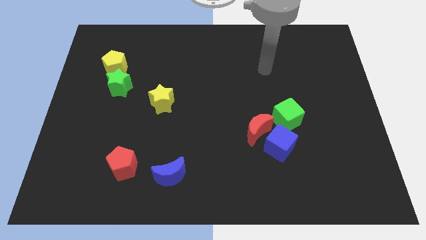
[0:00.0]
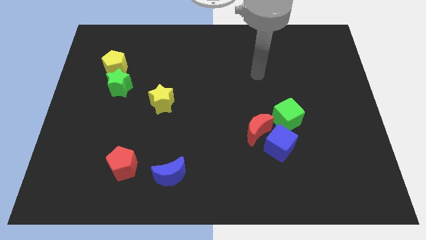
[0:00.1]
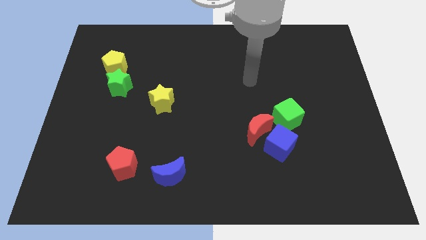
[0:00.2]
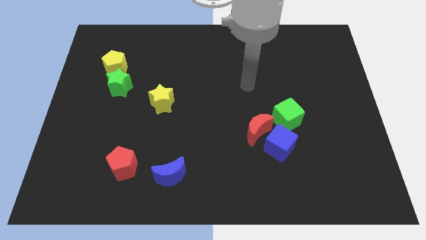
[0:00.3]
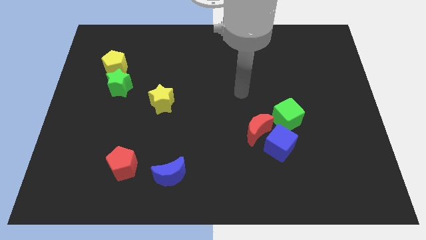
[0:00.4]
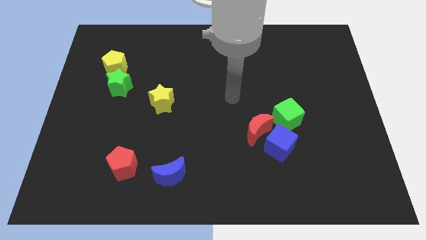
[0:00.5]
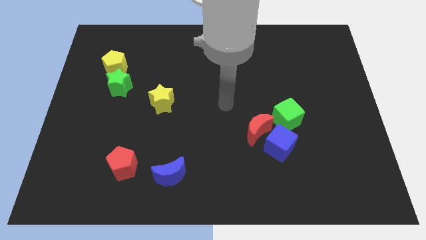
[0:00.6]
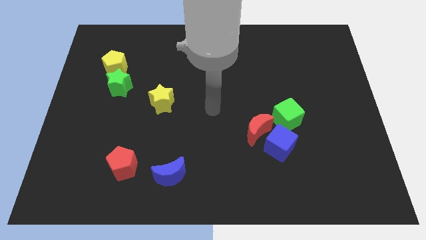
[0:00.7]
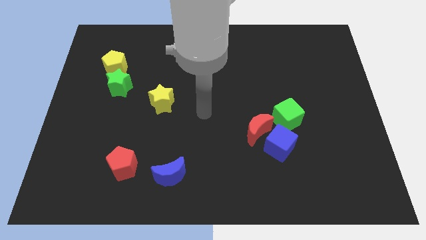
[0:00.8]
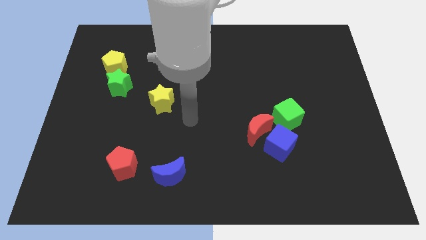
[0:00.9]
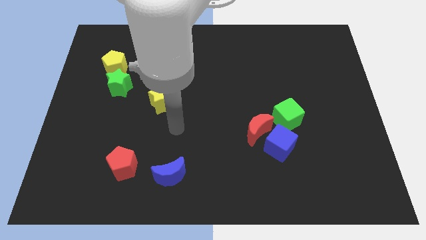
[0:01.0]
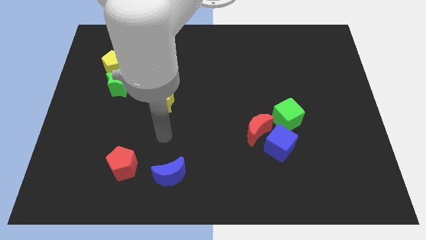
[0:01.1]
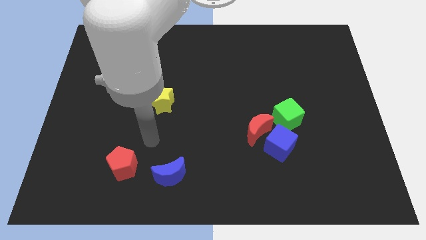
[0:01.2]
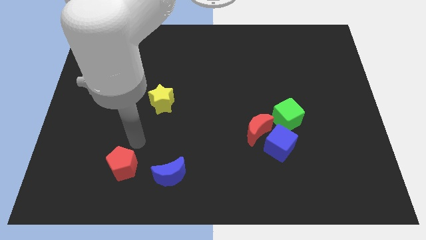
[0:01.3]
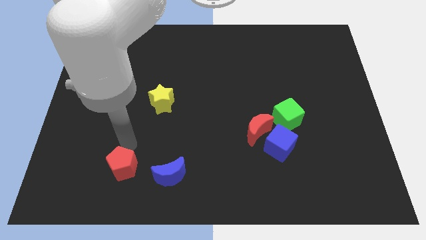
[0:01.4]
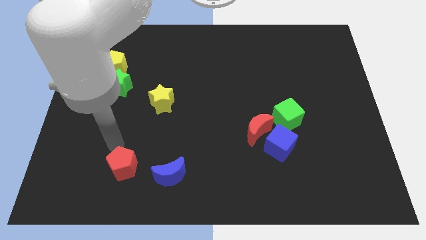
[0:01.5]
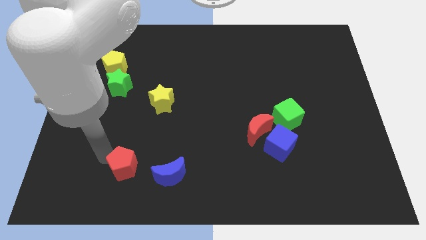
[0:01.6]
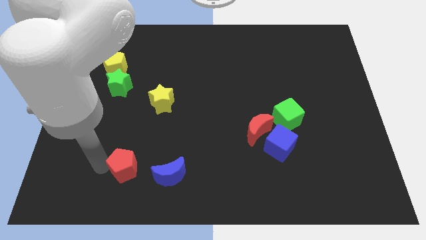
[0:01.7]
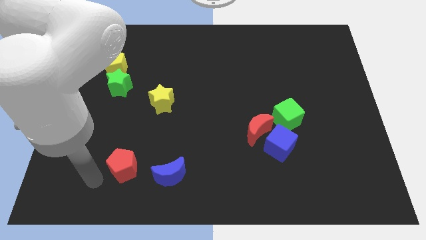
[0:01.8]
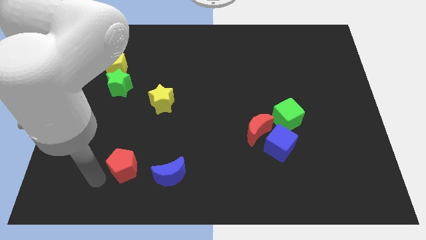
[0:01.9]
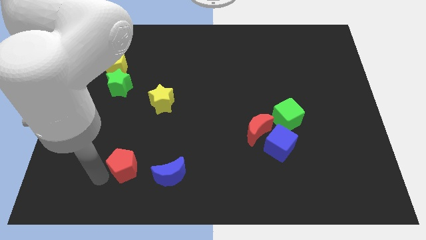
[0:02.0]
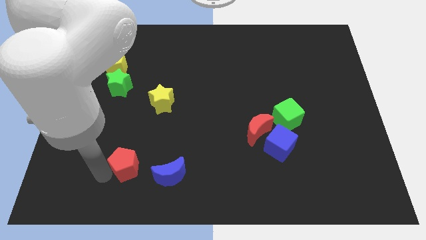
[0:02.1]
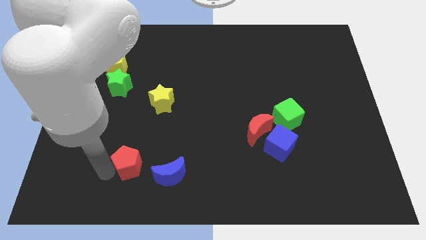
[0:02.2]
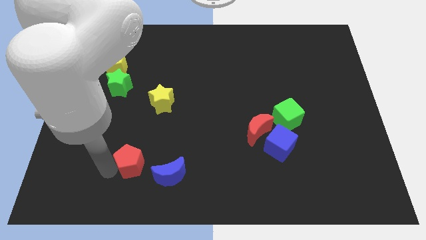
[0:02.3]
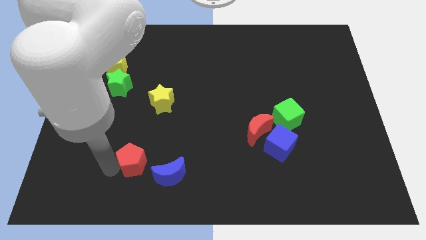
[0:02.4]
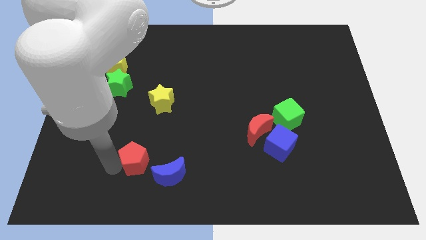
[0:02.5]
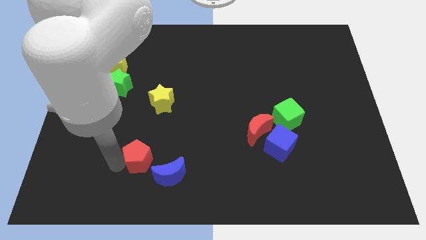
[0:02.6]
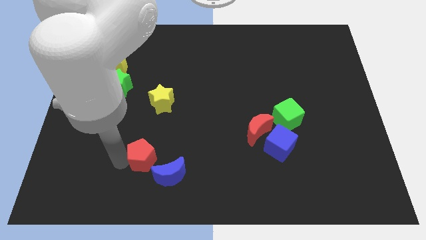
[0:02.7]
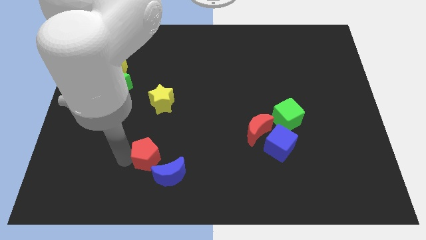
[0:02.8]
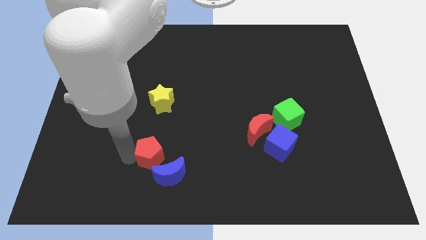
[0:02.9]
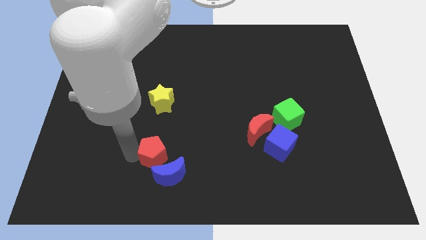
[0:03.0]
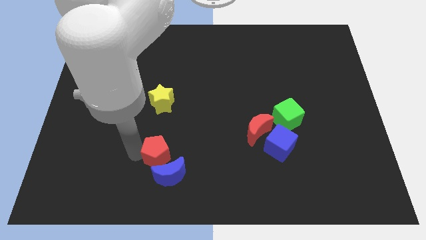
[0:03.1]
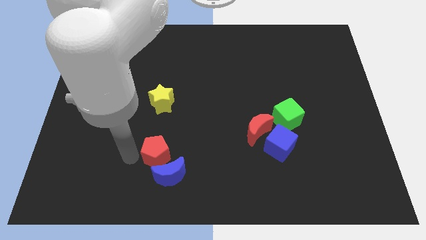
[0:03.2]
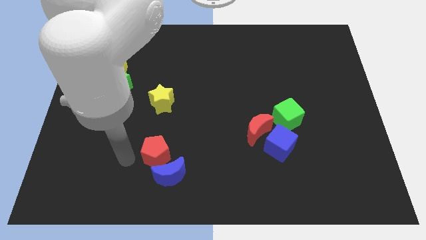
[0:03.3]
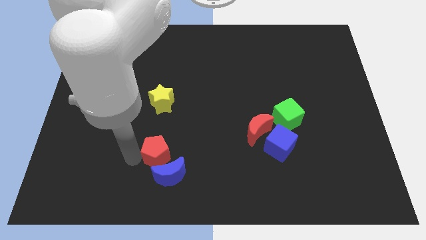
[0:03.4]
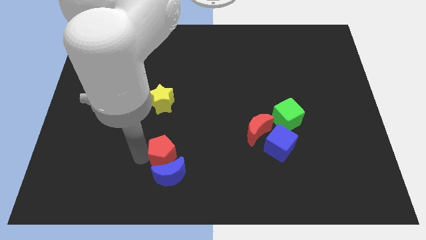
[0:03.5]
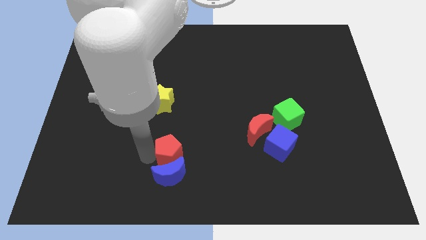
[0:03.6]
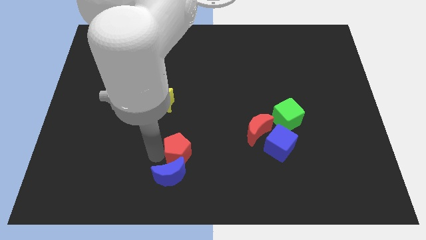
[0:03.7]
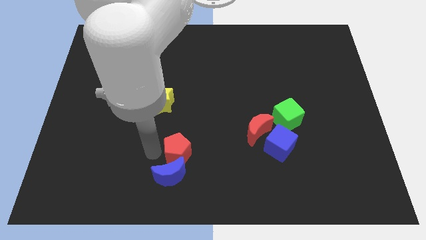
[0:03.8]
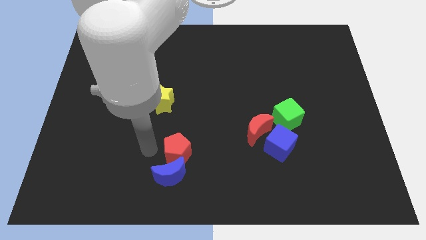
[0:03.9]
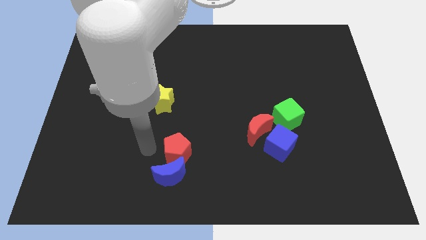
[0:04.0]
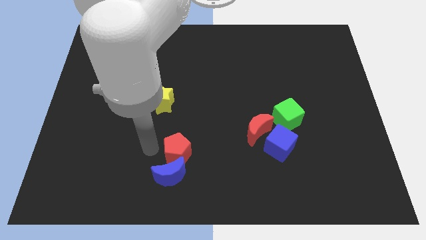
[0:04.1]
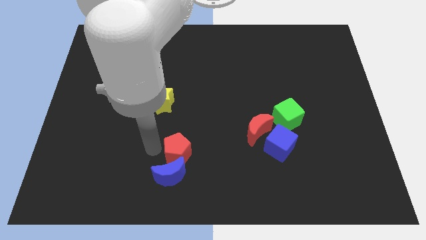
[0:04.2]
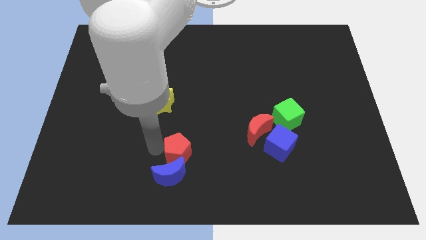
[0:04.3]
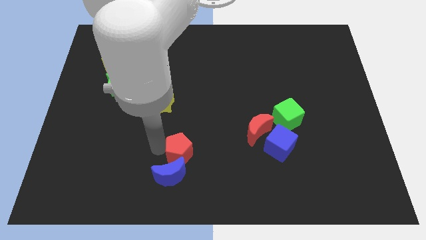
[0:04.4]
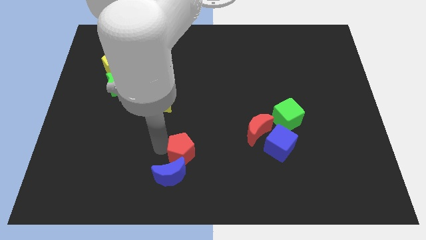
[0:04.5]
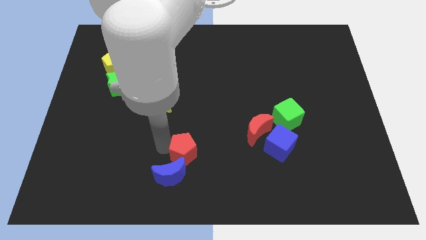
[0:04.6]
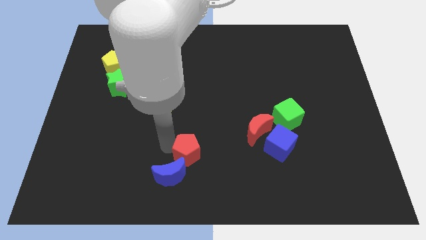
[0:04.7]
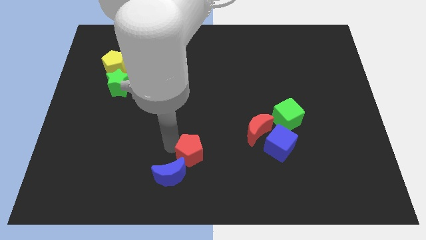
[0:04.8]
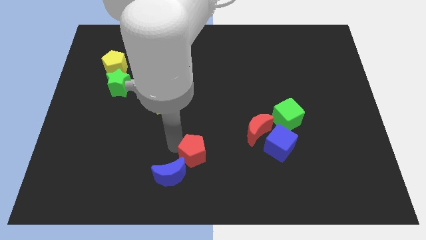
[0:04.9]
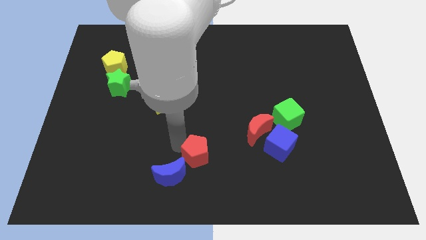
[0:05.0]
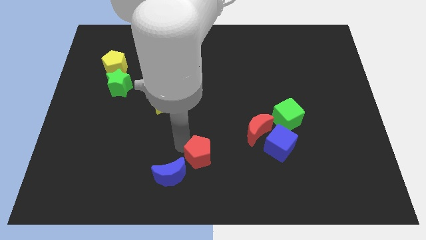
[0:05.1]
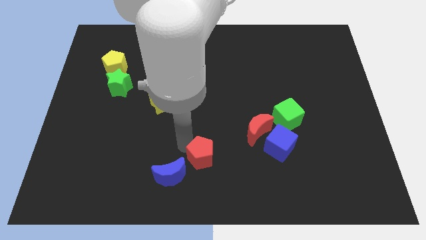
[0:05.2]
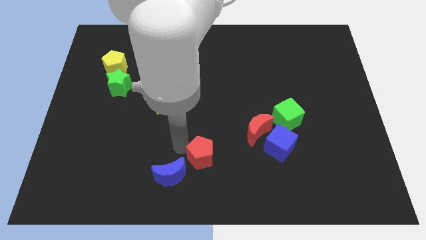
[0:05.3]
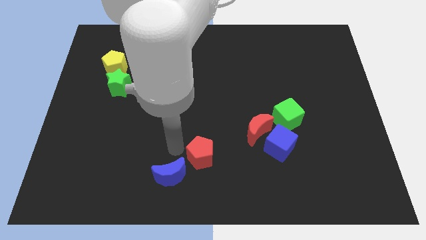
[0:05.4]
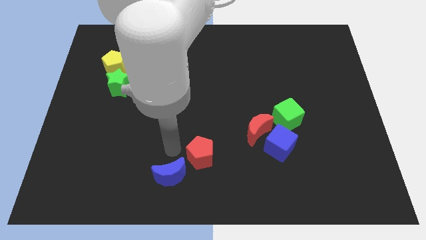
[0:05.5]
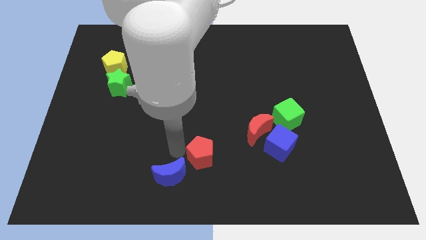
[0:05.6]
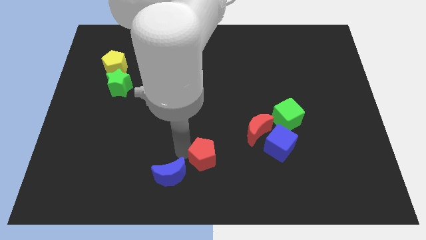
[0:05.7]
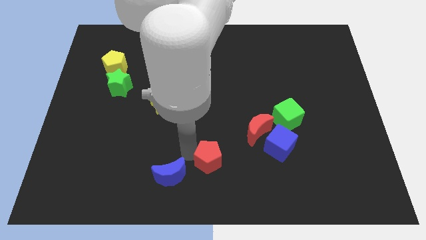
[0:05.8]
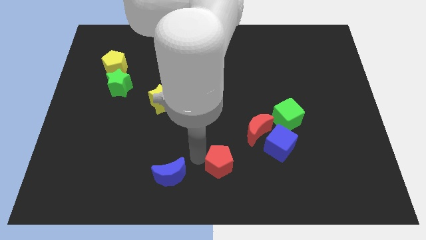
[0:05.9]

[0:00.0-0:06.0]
push the red pentagon right

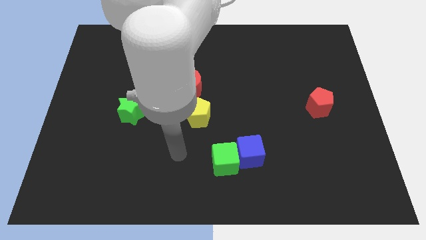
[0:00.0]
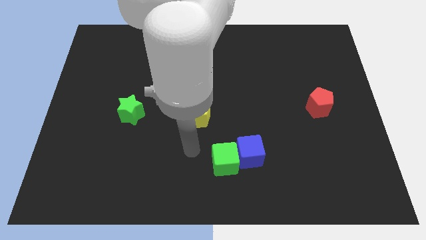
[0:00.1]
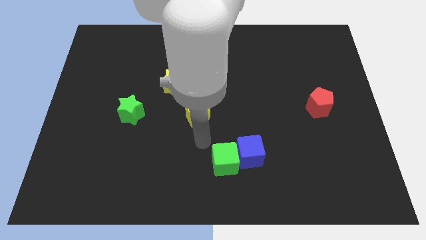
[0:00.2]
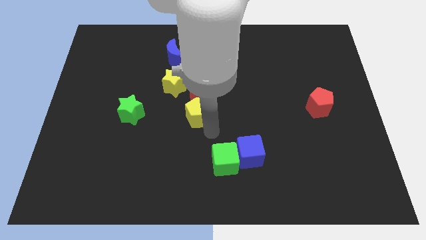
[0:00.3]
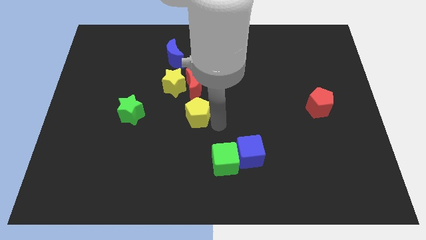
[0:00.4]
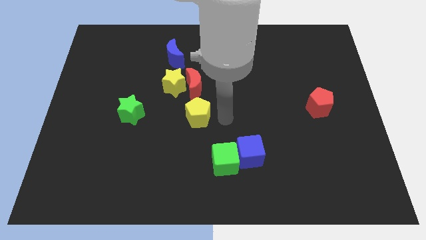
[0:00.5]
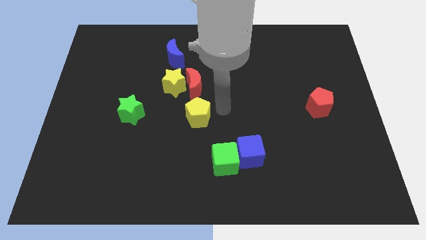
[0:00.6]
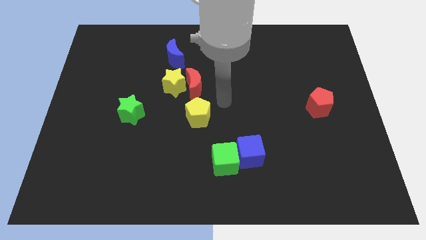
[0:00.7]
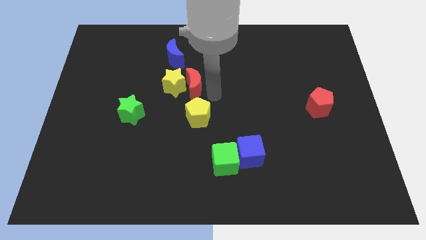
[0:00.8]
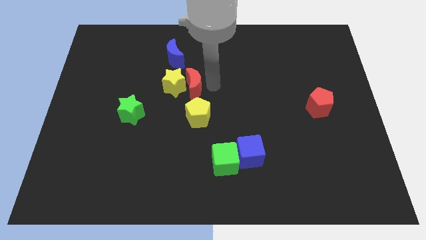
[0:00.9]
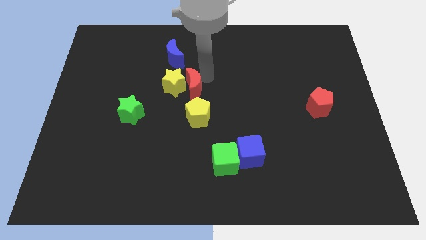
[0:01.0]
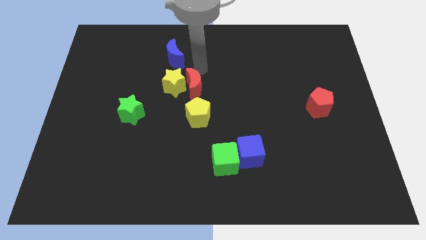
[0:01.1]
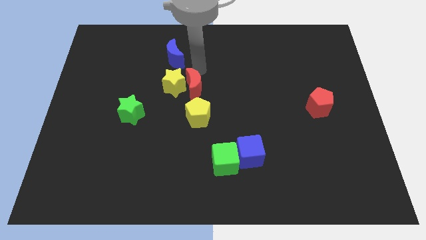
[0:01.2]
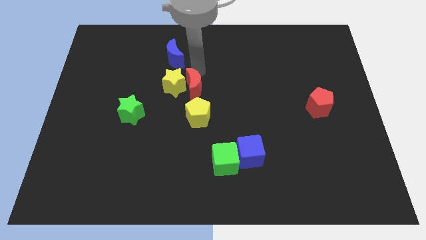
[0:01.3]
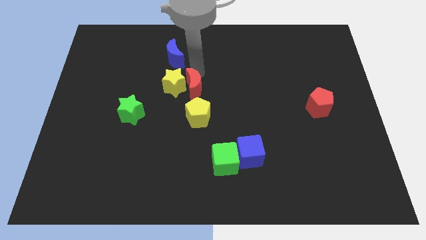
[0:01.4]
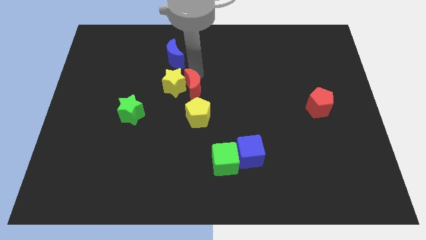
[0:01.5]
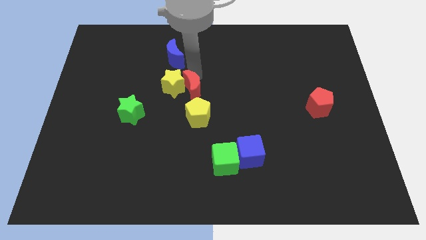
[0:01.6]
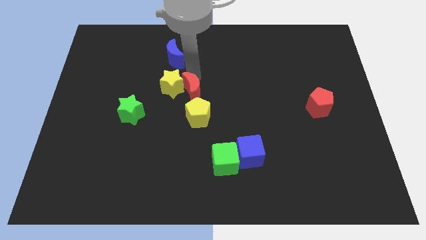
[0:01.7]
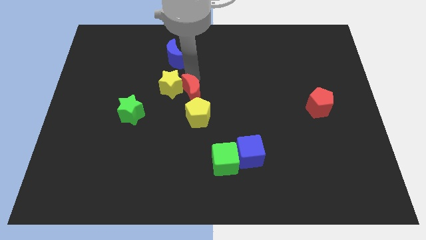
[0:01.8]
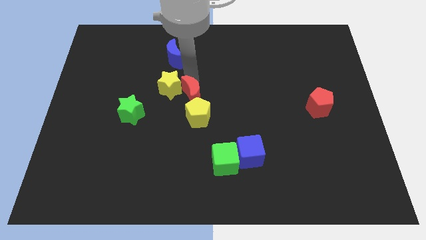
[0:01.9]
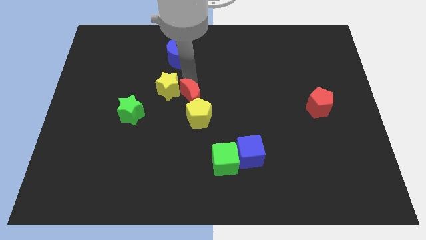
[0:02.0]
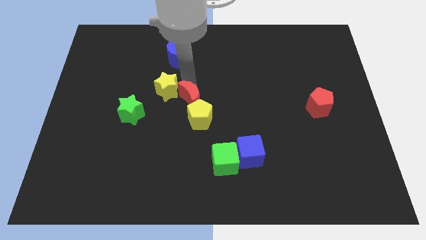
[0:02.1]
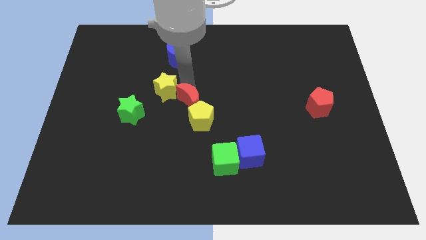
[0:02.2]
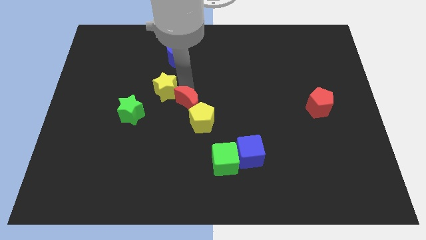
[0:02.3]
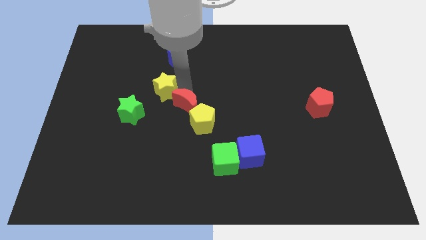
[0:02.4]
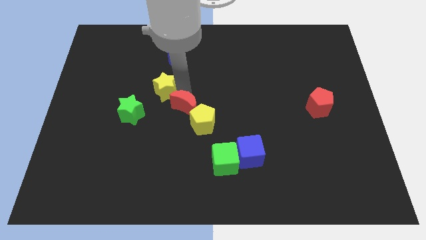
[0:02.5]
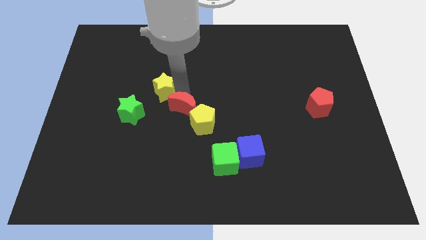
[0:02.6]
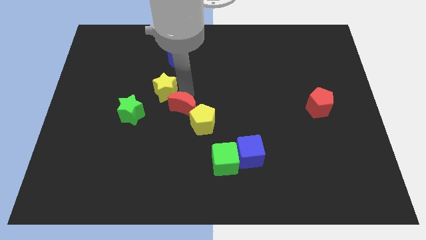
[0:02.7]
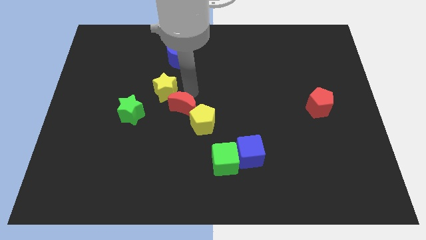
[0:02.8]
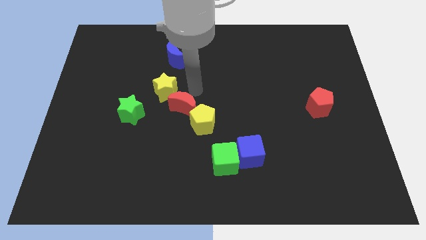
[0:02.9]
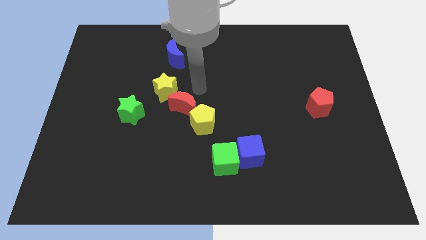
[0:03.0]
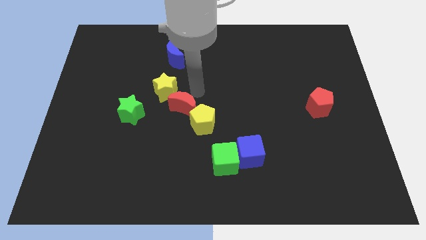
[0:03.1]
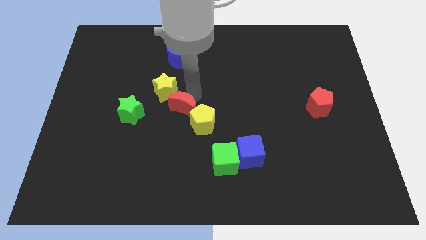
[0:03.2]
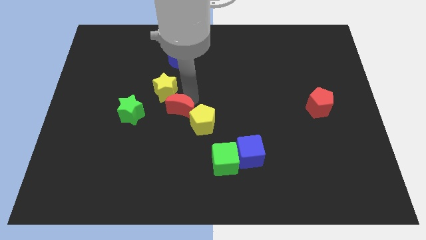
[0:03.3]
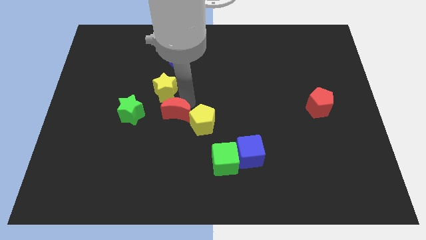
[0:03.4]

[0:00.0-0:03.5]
slide the red moon downwards a little
